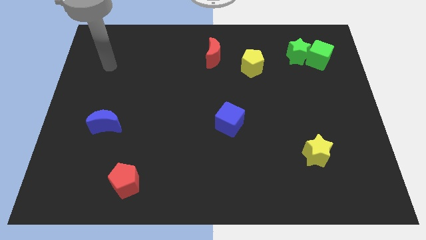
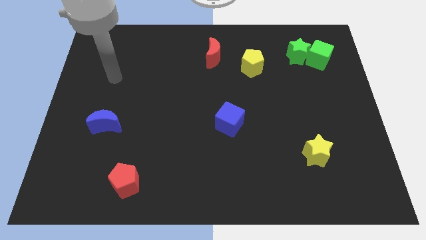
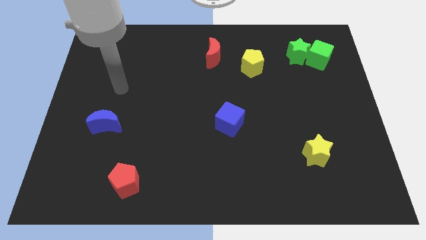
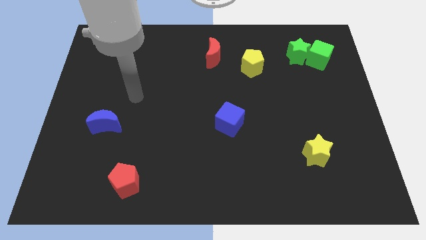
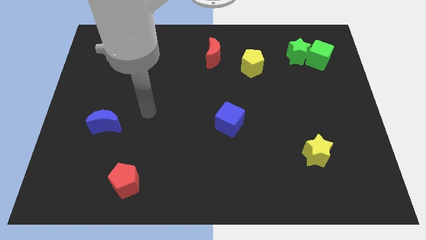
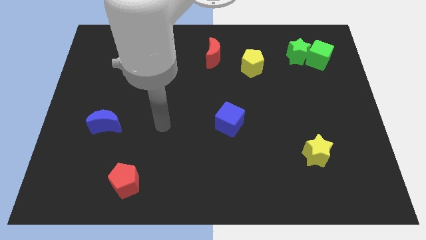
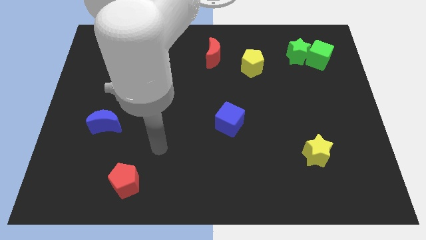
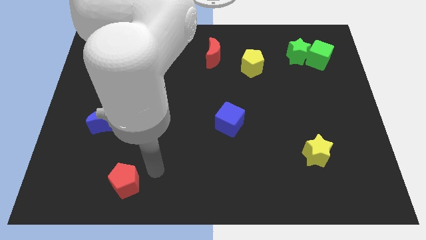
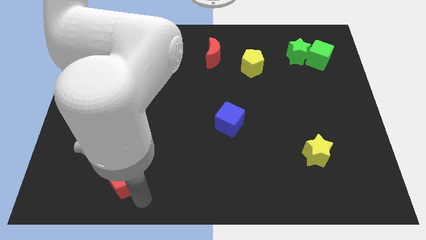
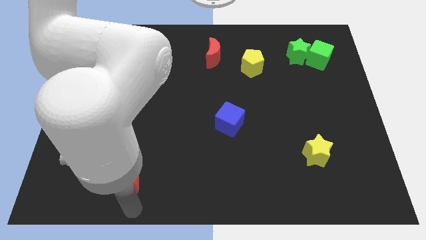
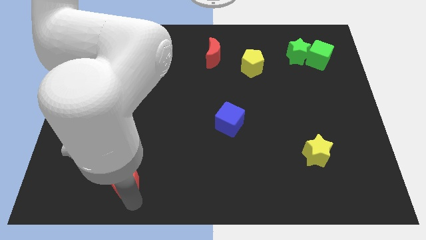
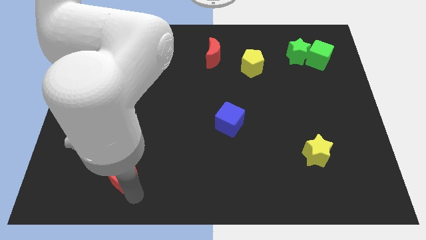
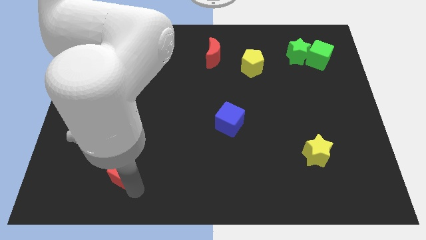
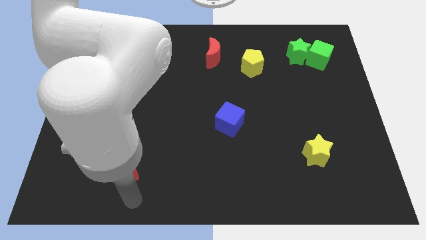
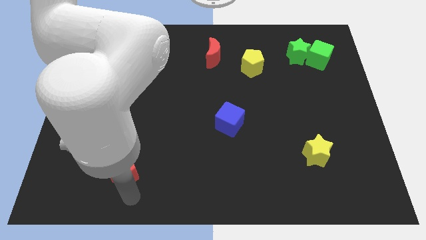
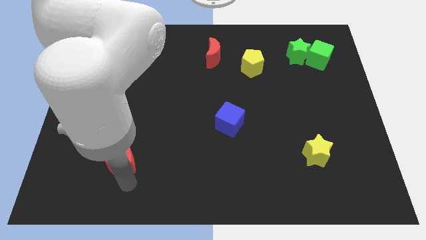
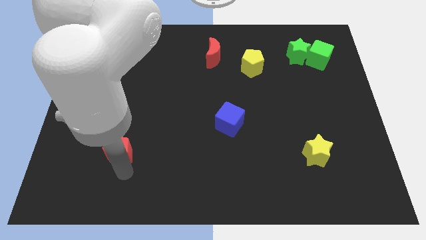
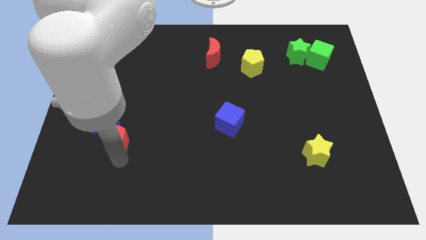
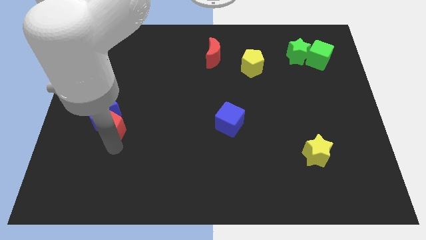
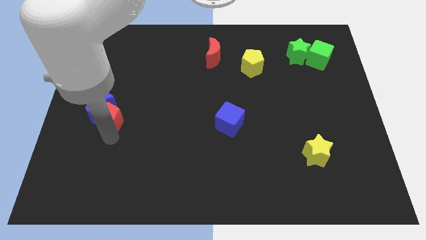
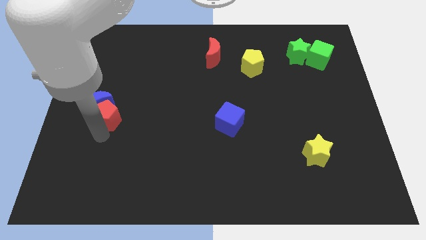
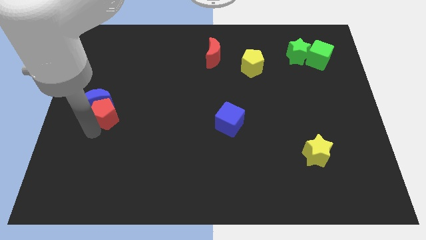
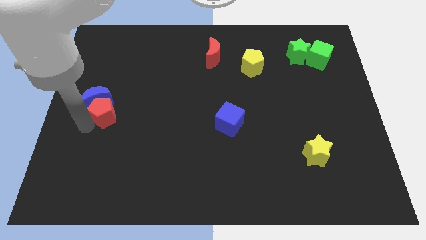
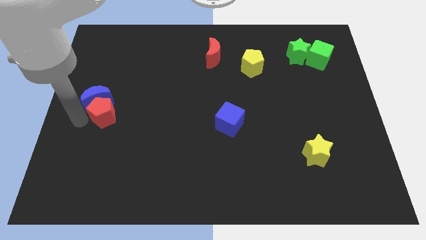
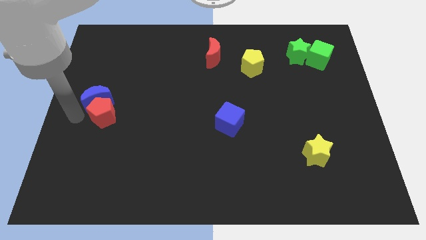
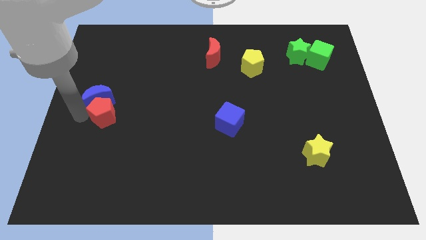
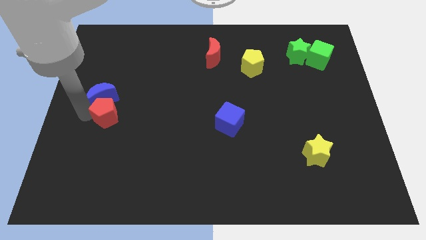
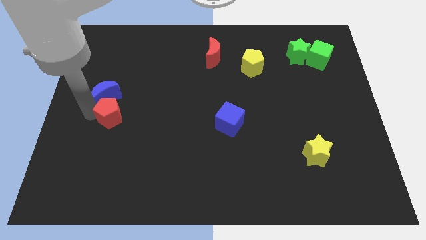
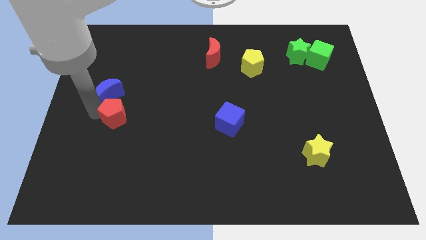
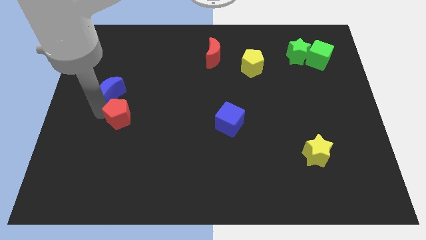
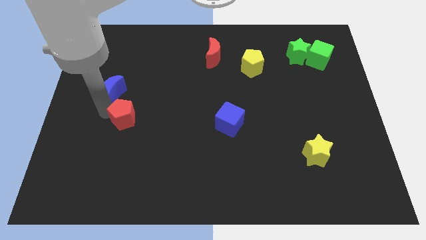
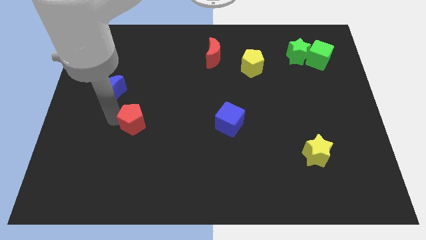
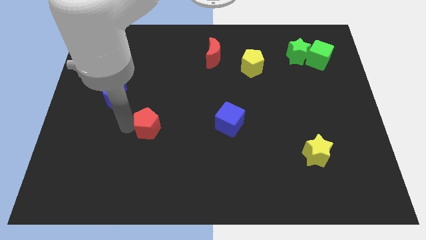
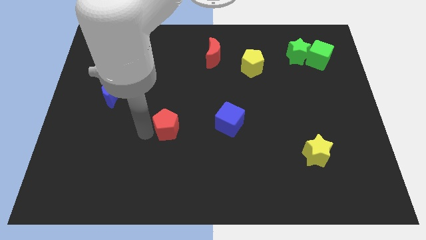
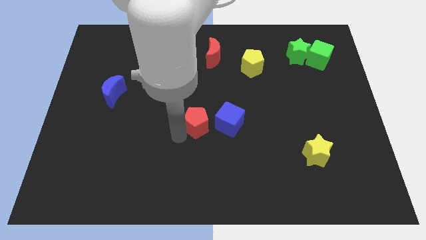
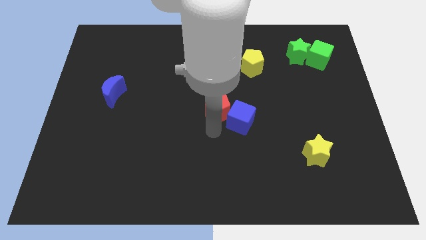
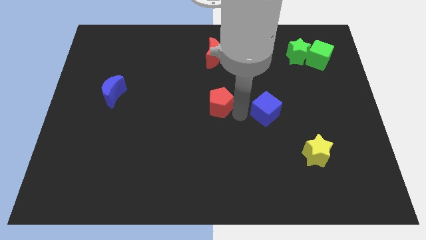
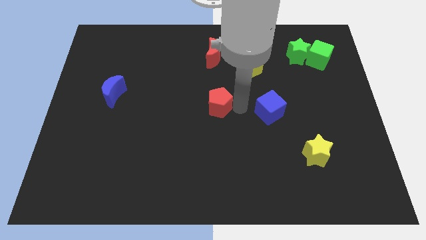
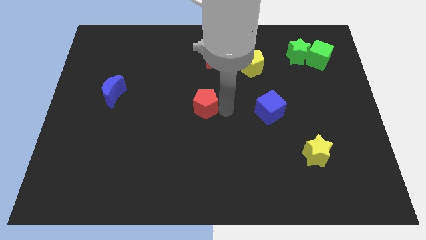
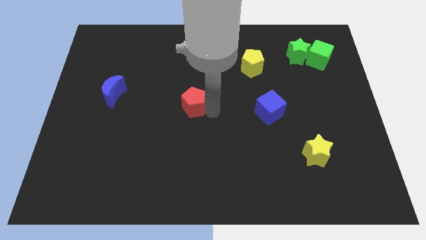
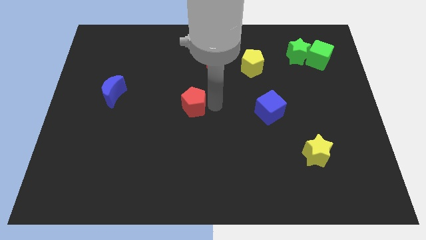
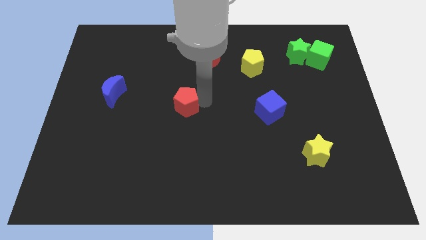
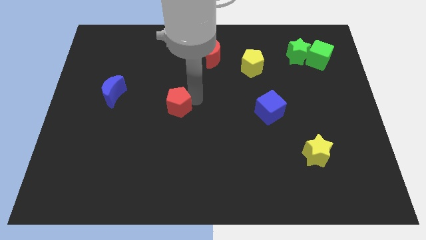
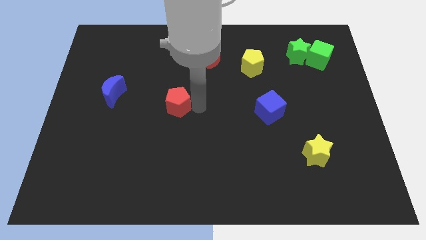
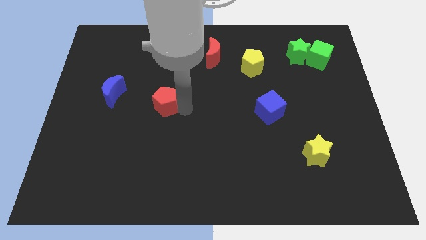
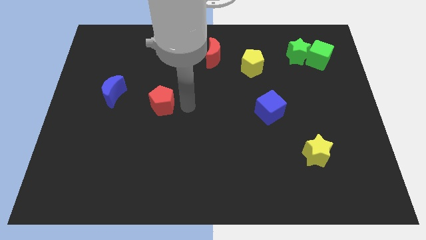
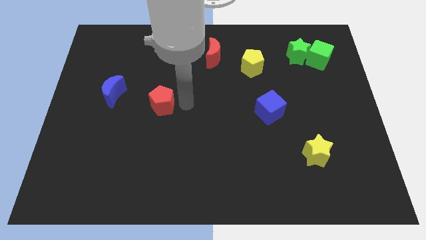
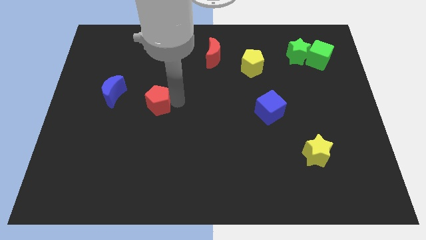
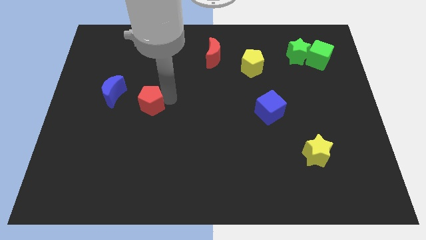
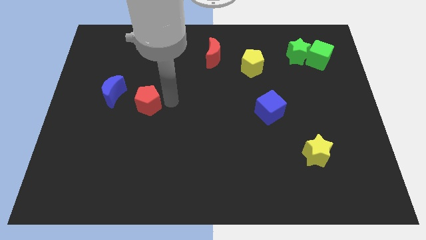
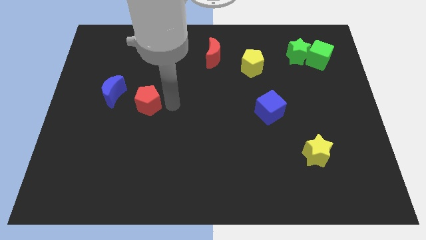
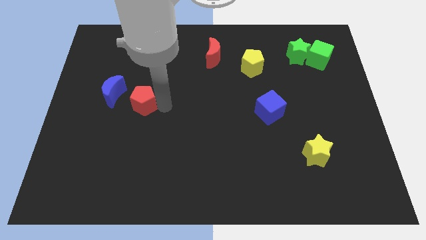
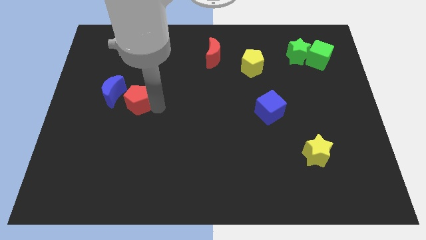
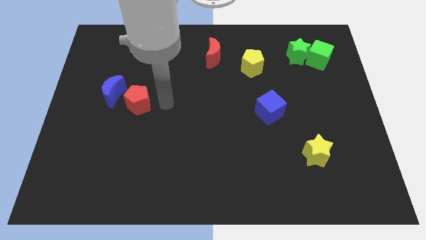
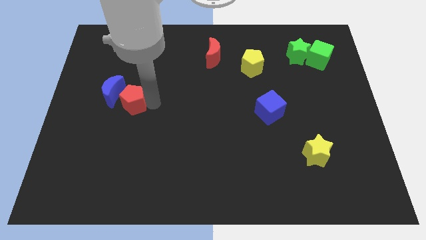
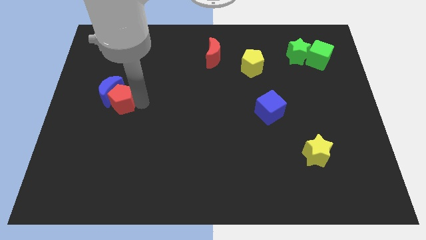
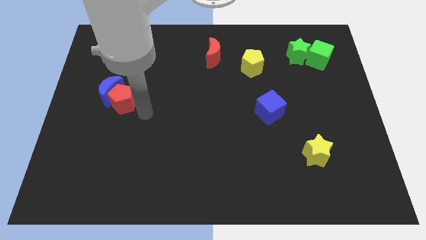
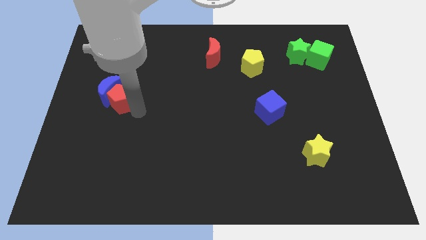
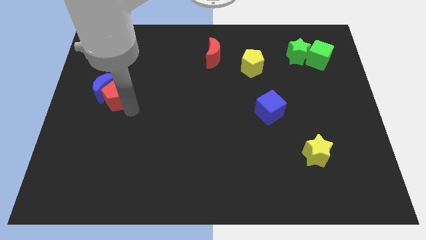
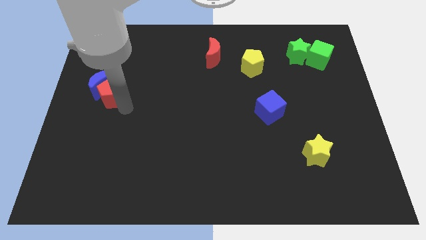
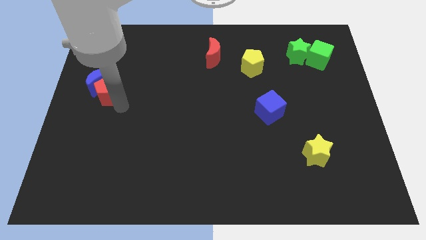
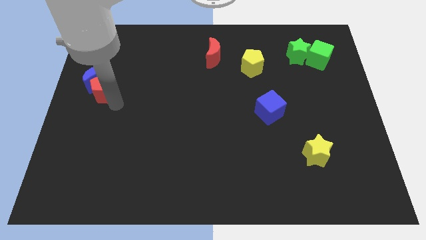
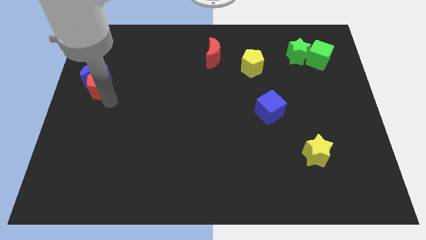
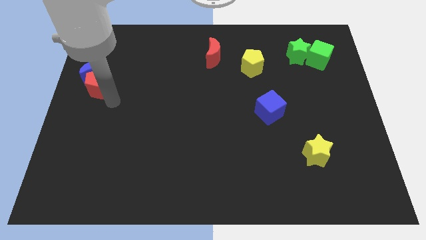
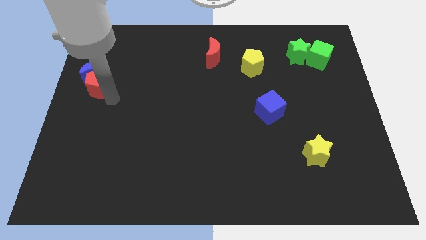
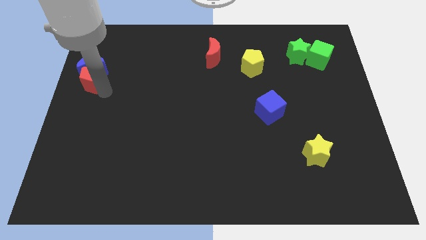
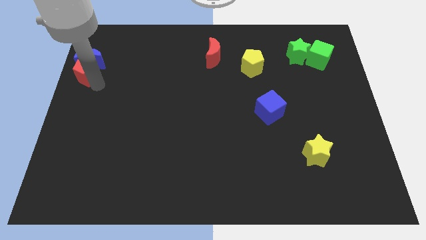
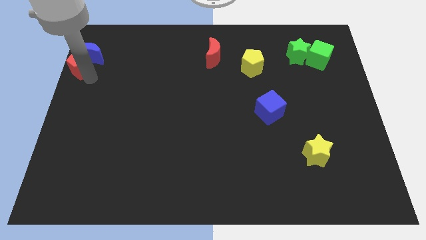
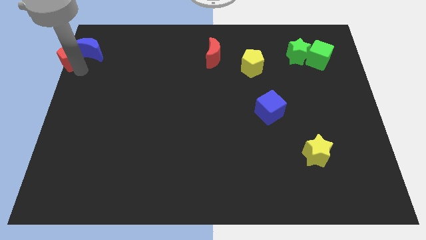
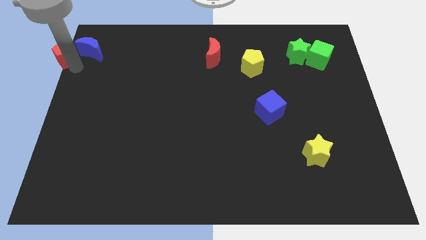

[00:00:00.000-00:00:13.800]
move the red pentagon to the upper left corner

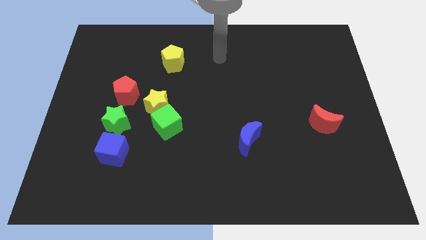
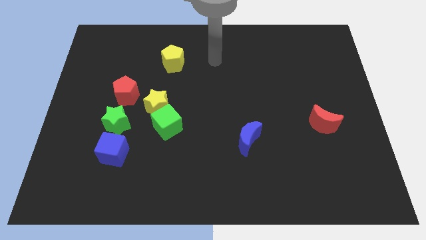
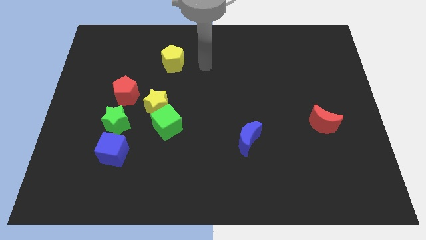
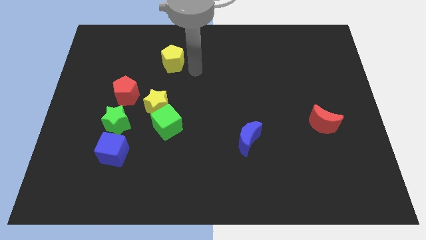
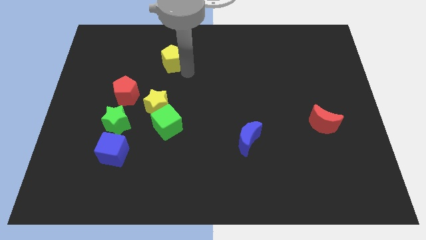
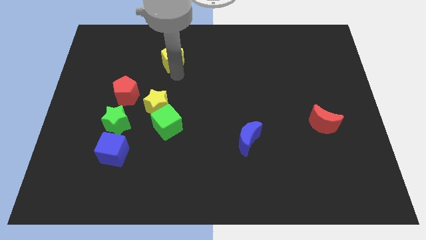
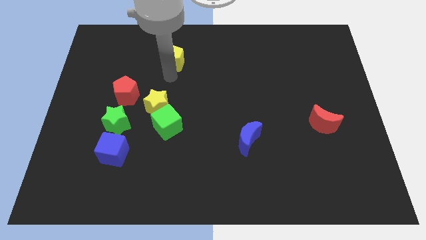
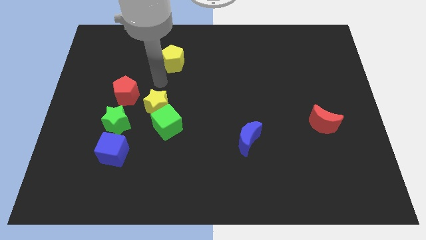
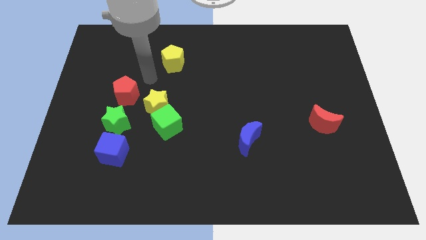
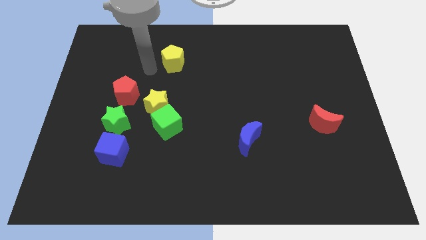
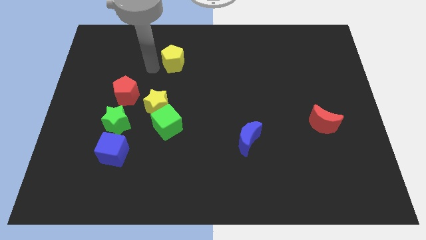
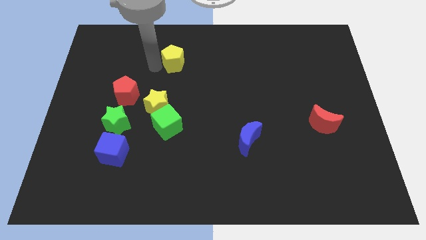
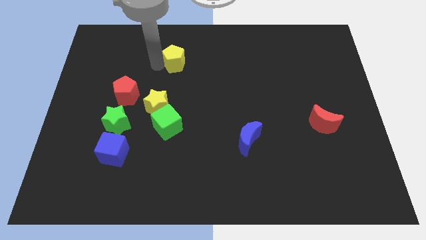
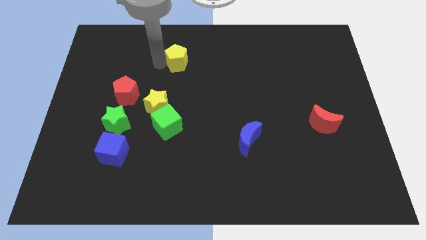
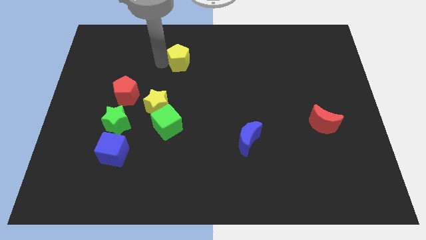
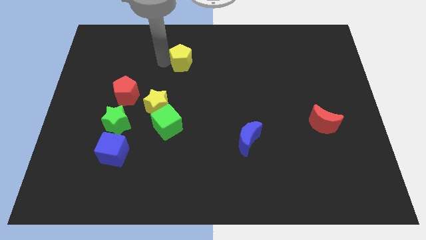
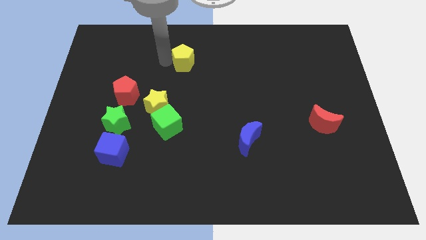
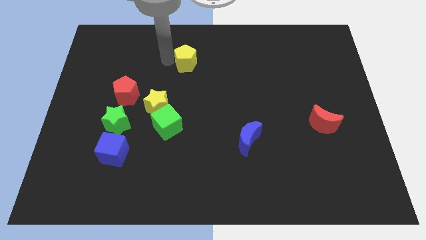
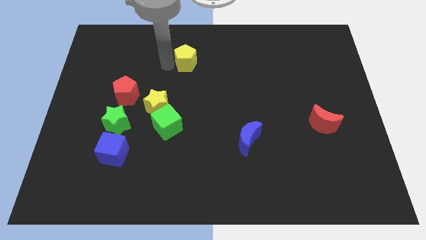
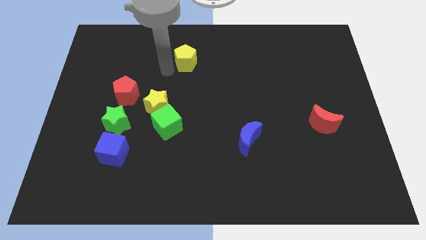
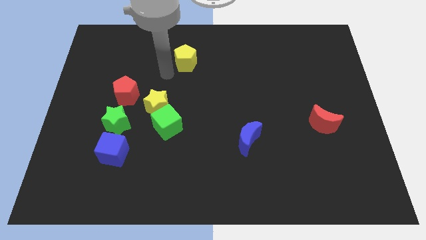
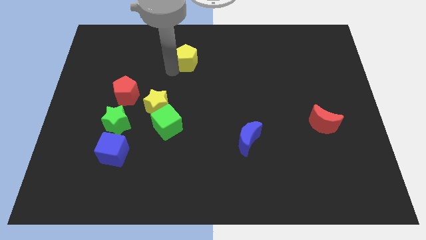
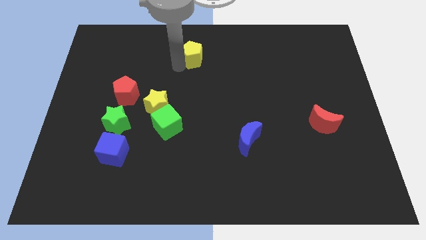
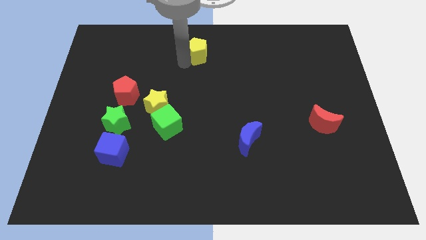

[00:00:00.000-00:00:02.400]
push the yellow pentagon to the towards your base
